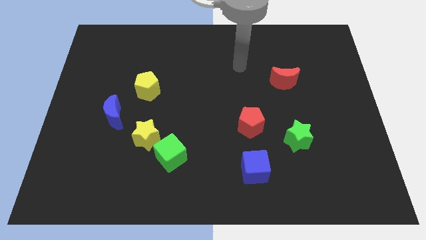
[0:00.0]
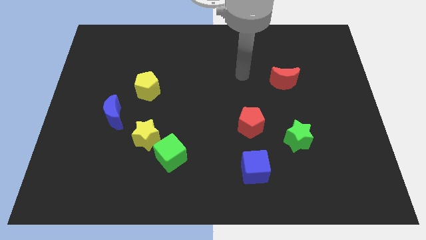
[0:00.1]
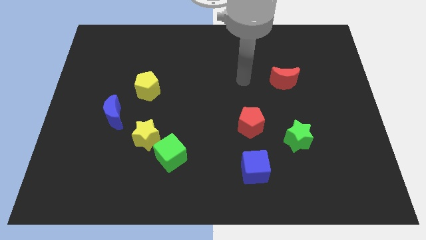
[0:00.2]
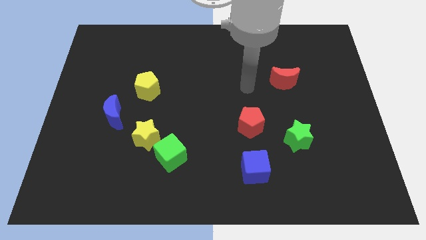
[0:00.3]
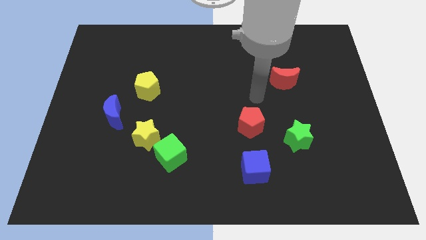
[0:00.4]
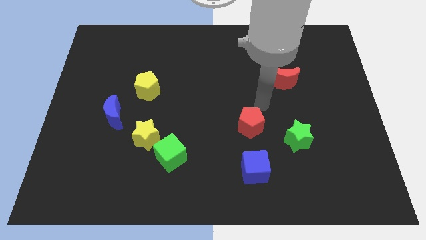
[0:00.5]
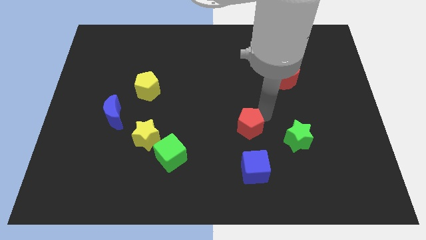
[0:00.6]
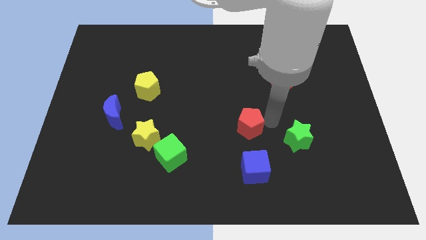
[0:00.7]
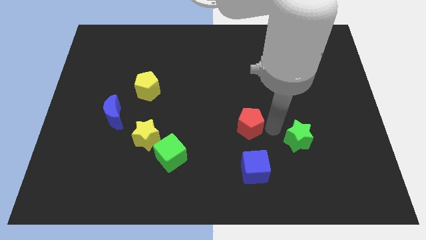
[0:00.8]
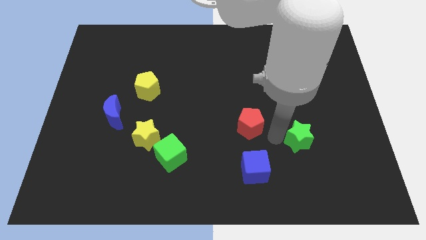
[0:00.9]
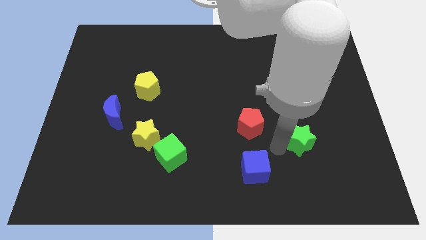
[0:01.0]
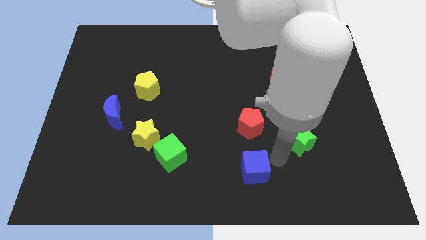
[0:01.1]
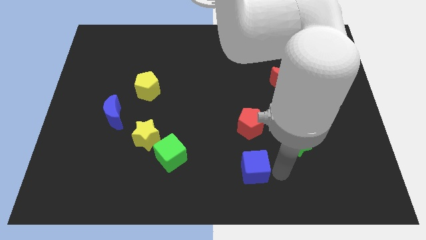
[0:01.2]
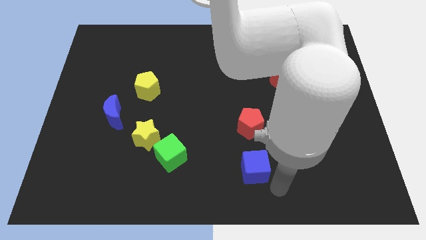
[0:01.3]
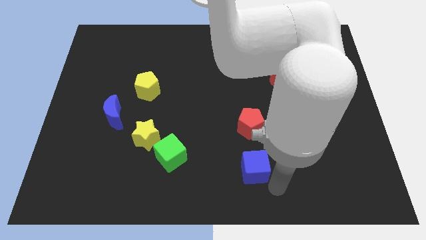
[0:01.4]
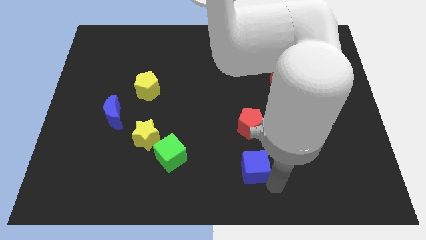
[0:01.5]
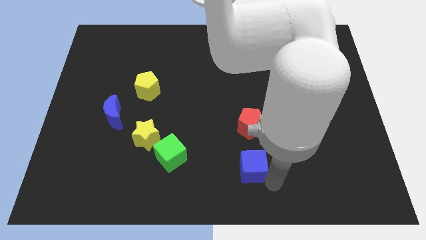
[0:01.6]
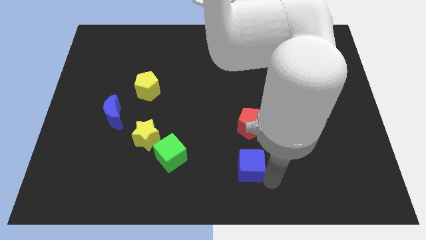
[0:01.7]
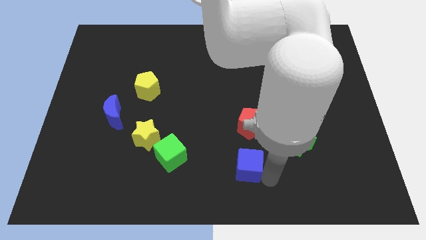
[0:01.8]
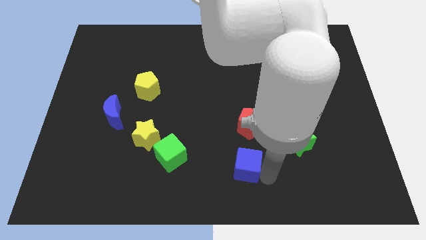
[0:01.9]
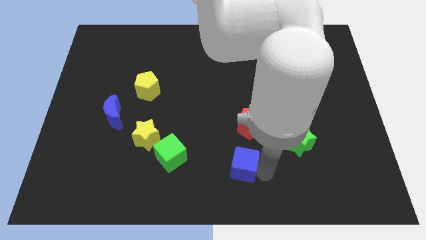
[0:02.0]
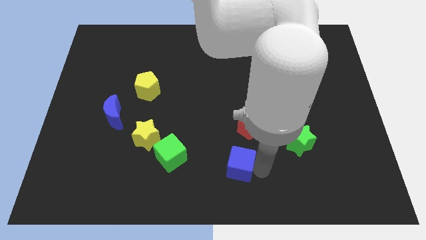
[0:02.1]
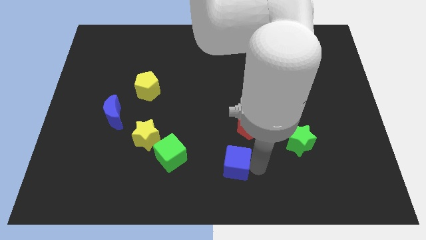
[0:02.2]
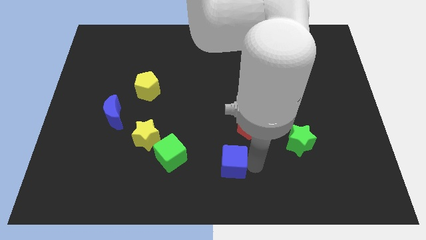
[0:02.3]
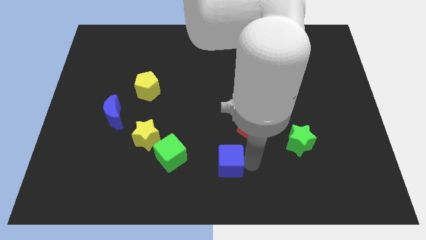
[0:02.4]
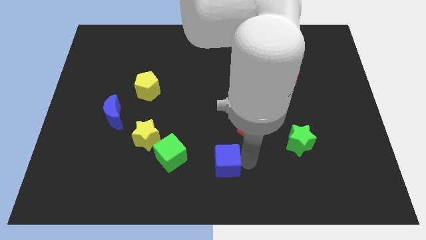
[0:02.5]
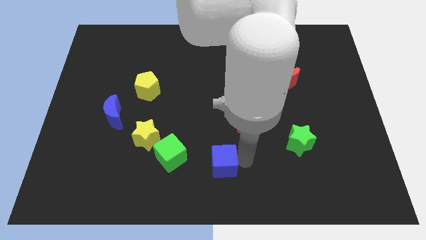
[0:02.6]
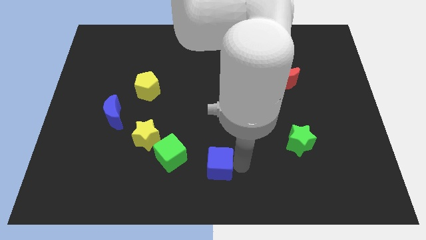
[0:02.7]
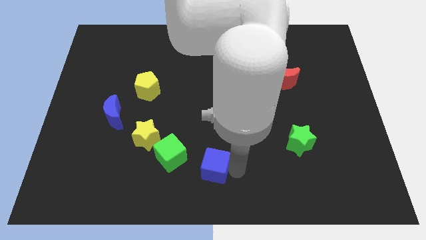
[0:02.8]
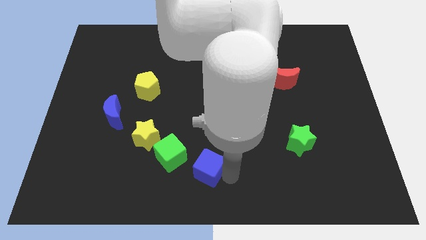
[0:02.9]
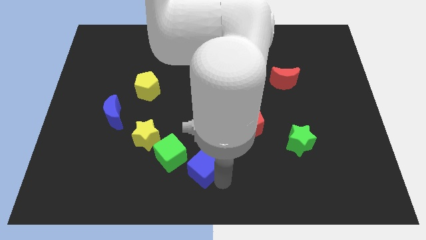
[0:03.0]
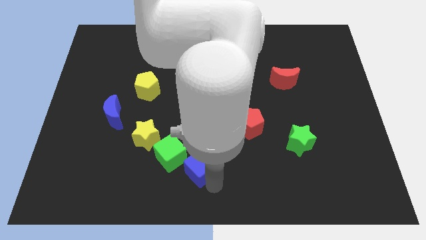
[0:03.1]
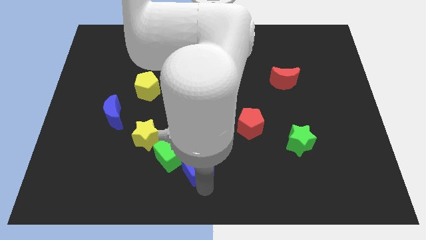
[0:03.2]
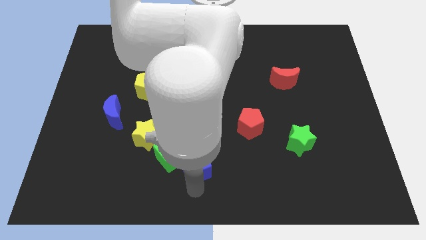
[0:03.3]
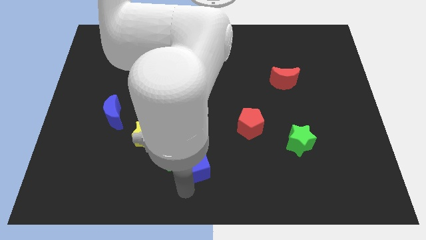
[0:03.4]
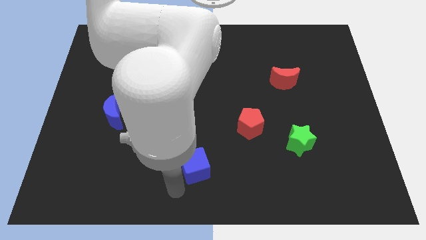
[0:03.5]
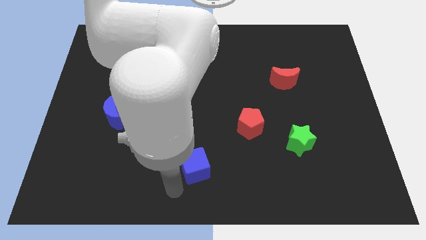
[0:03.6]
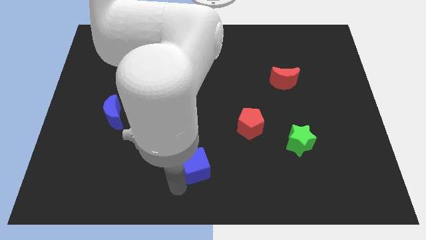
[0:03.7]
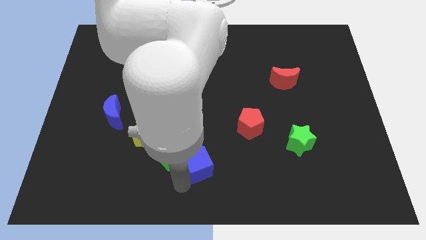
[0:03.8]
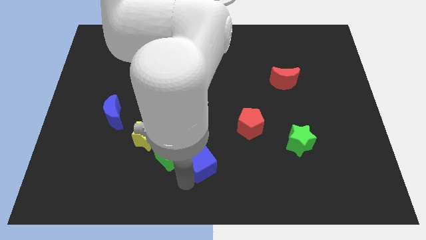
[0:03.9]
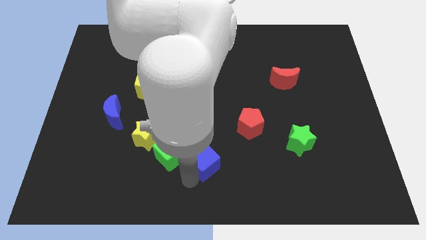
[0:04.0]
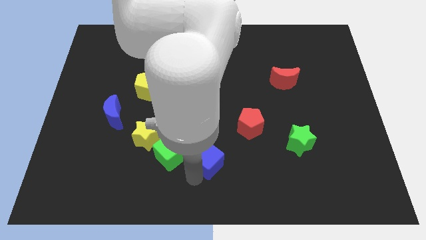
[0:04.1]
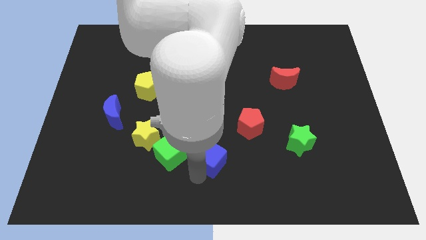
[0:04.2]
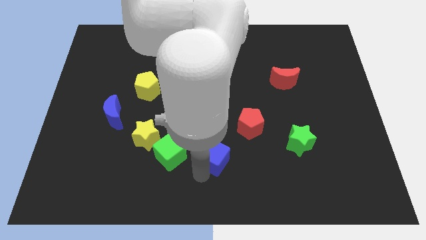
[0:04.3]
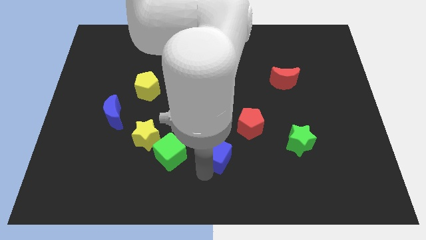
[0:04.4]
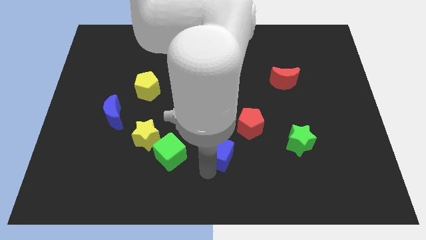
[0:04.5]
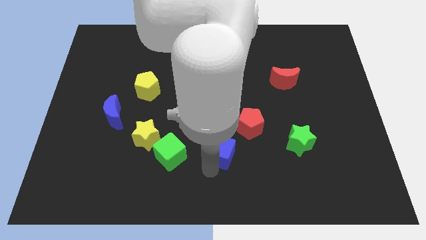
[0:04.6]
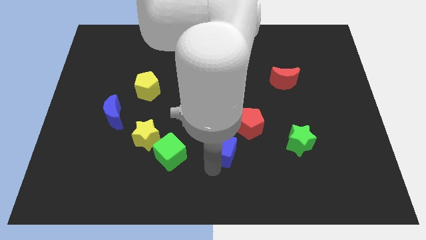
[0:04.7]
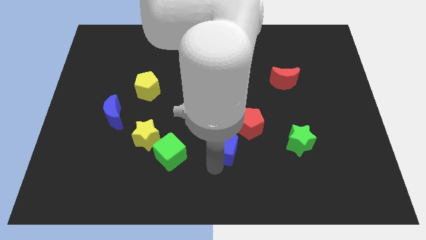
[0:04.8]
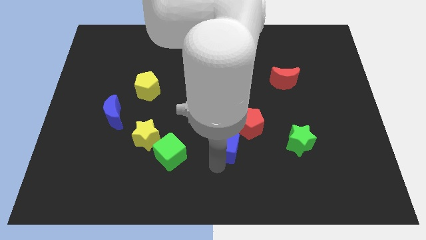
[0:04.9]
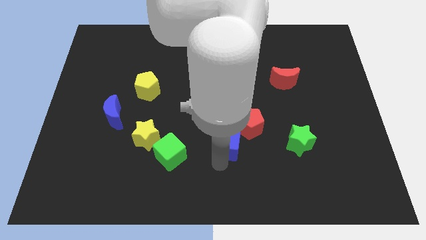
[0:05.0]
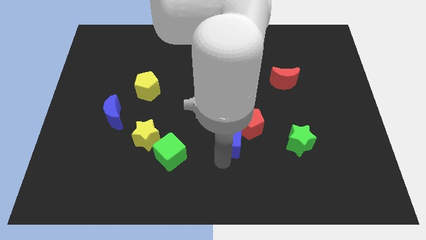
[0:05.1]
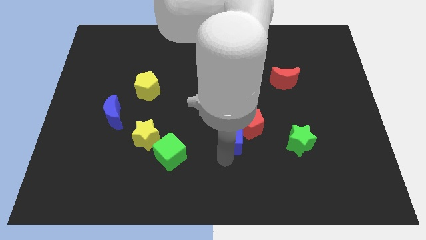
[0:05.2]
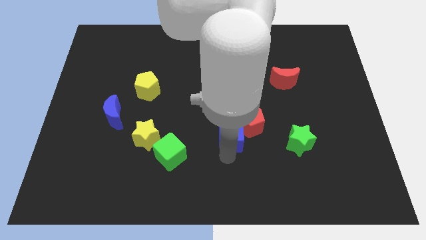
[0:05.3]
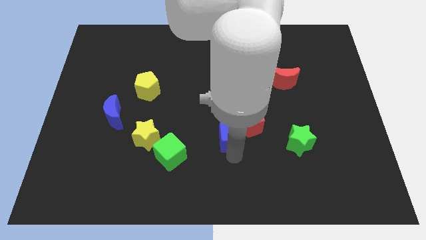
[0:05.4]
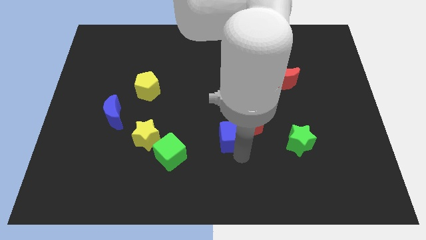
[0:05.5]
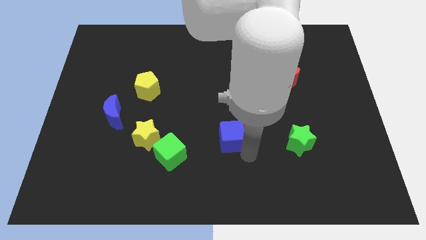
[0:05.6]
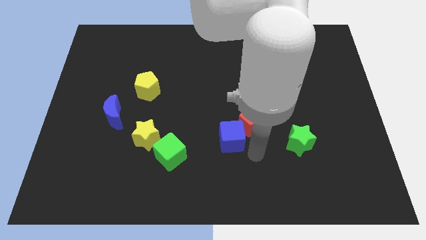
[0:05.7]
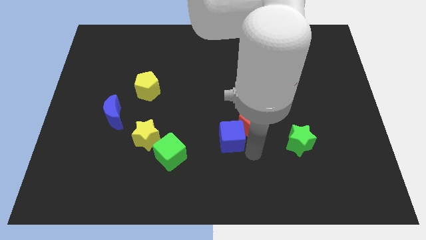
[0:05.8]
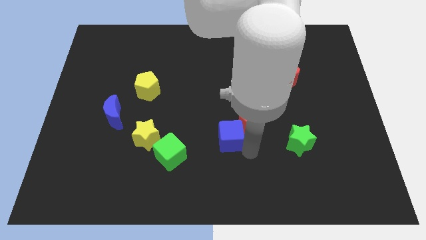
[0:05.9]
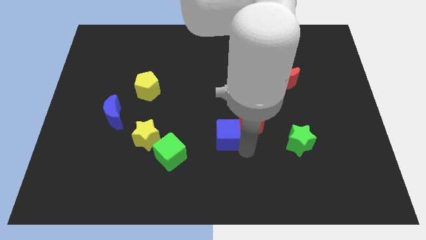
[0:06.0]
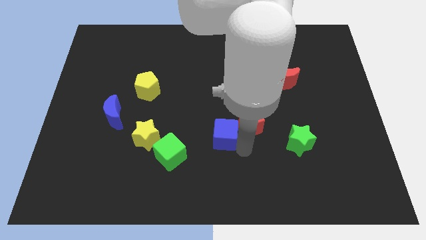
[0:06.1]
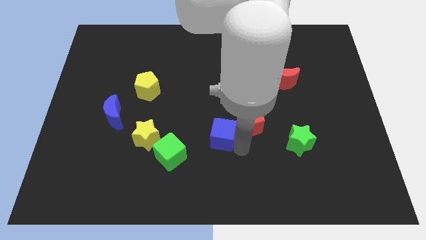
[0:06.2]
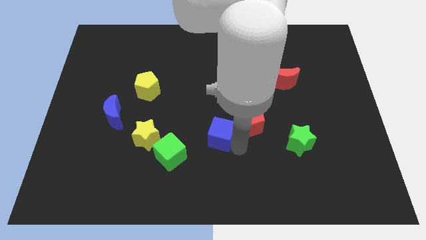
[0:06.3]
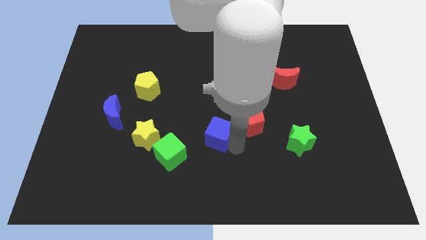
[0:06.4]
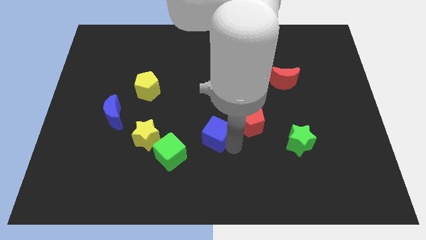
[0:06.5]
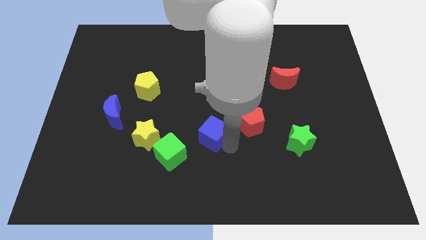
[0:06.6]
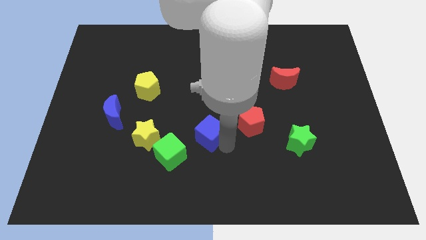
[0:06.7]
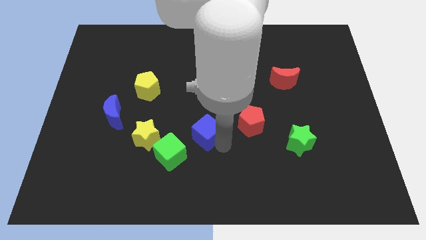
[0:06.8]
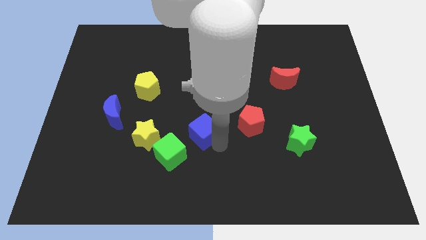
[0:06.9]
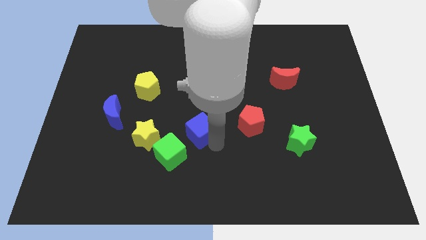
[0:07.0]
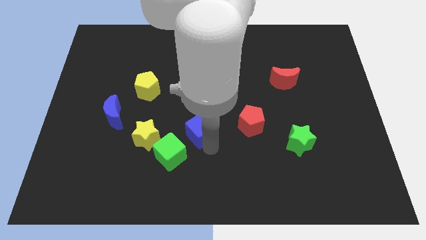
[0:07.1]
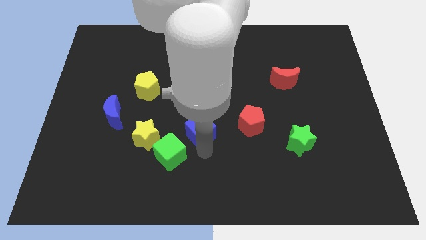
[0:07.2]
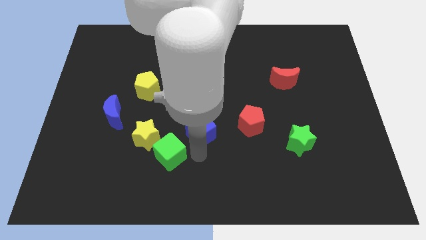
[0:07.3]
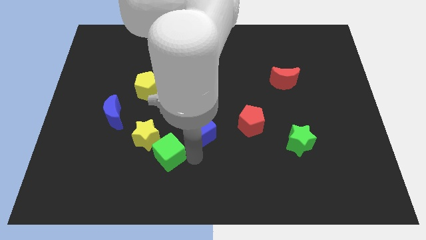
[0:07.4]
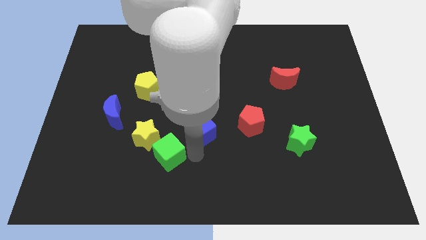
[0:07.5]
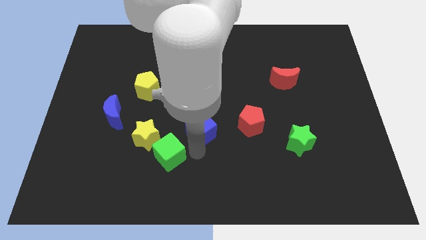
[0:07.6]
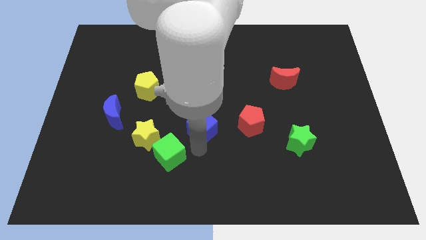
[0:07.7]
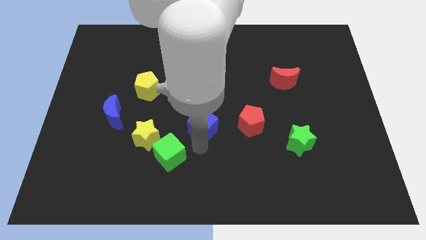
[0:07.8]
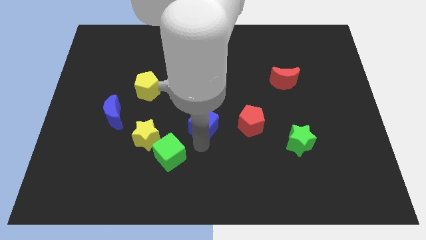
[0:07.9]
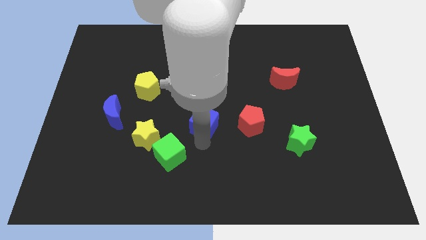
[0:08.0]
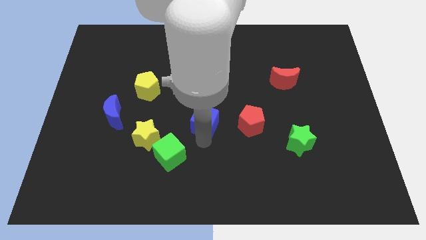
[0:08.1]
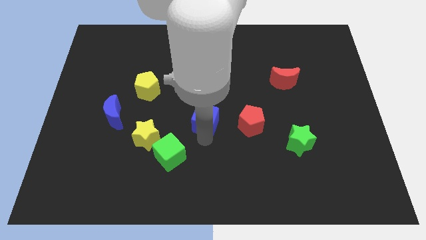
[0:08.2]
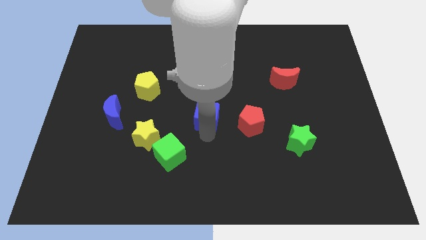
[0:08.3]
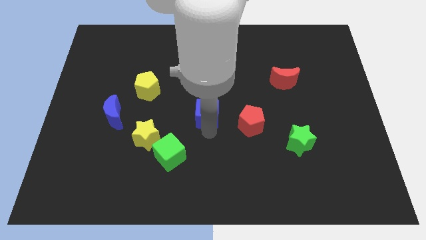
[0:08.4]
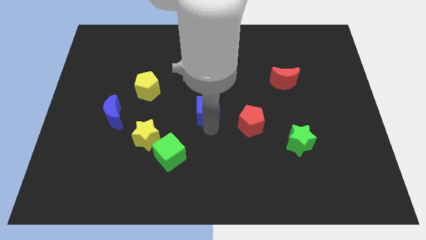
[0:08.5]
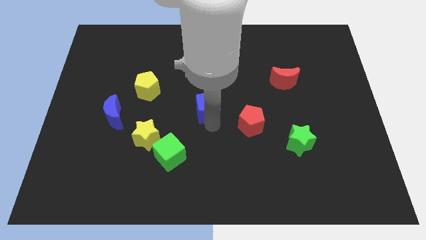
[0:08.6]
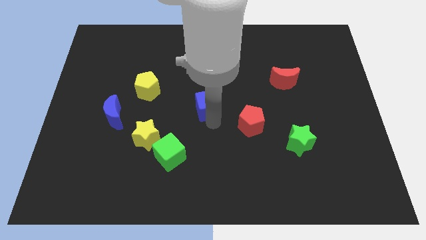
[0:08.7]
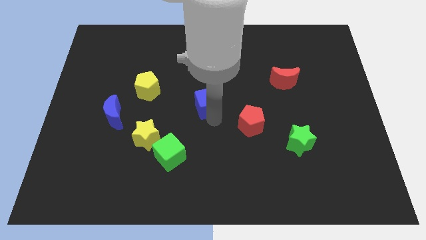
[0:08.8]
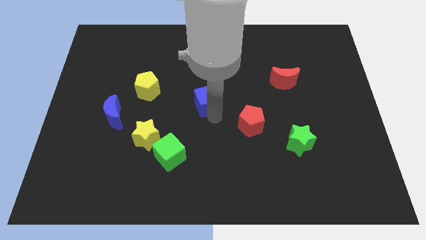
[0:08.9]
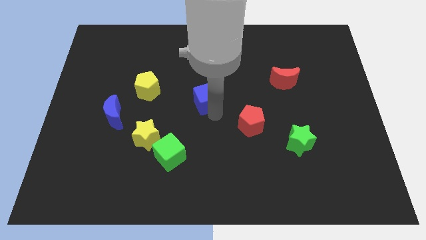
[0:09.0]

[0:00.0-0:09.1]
push the blue cube to the right side of the yellow pentagon
